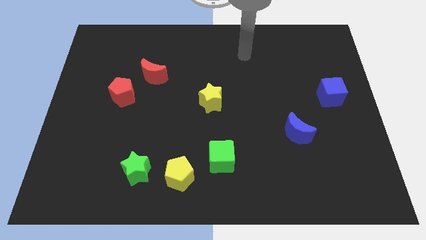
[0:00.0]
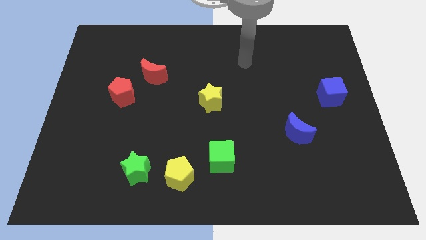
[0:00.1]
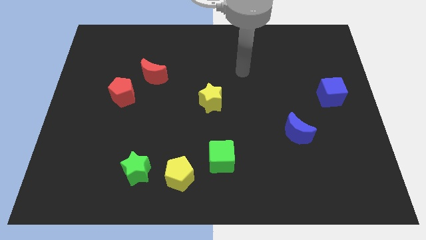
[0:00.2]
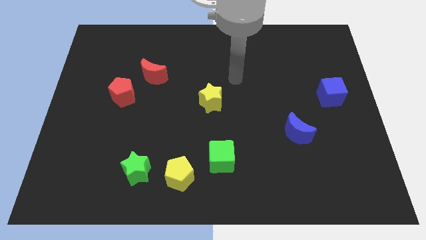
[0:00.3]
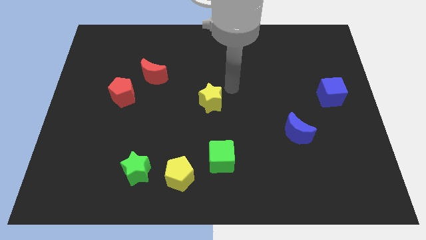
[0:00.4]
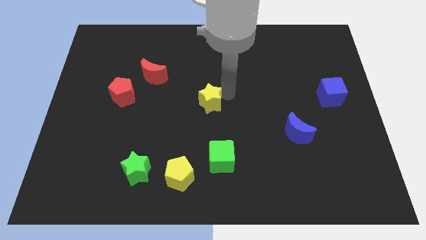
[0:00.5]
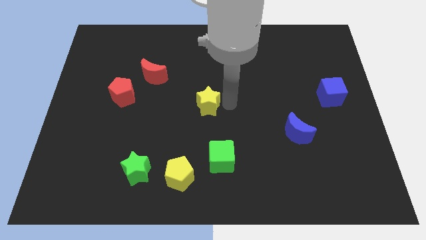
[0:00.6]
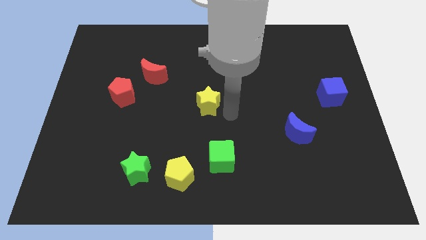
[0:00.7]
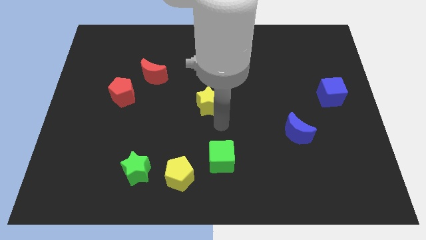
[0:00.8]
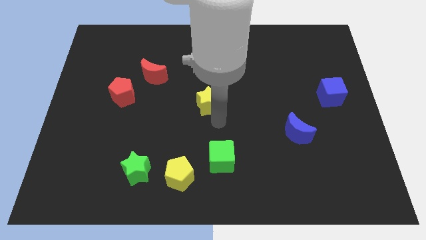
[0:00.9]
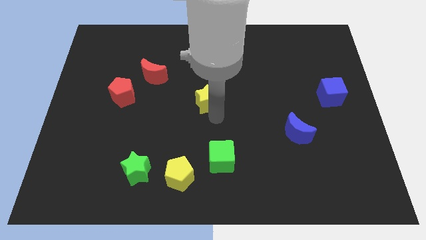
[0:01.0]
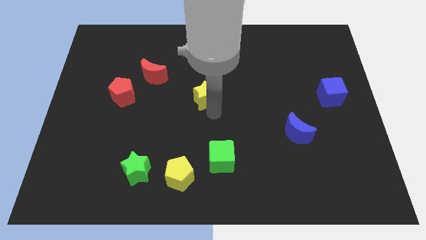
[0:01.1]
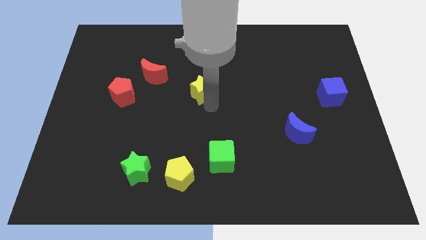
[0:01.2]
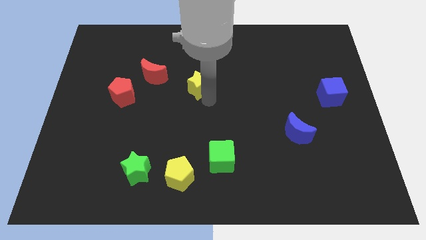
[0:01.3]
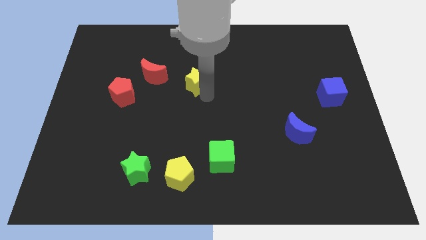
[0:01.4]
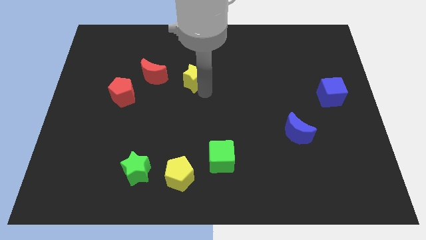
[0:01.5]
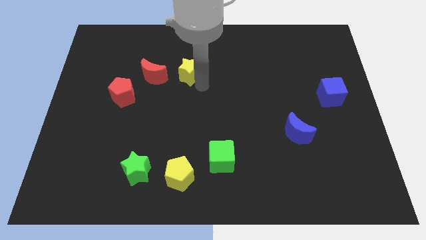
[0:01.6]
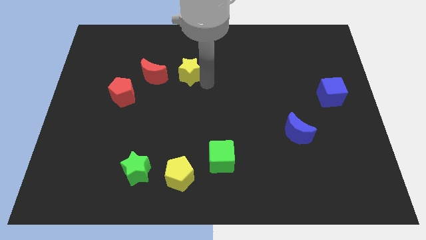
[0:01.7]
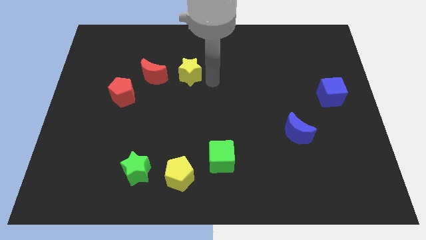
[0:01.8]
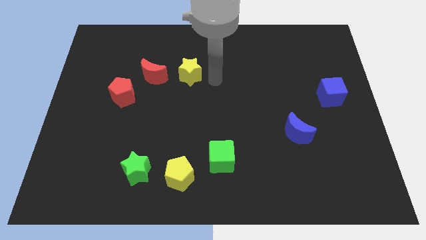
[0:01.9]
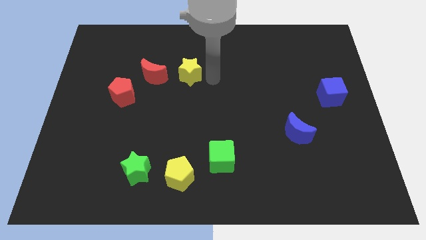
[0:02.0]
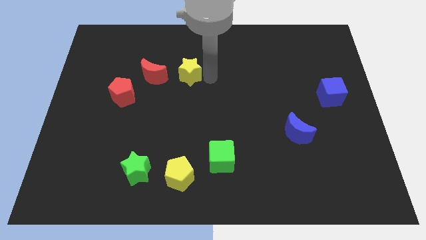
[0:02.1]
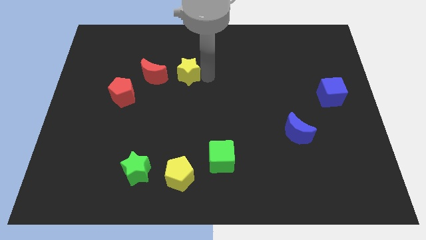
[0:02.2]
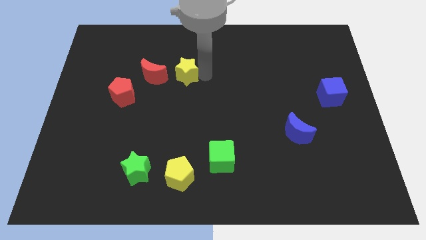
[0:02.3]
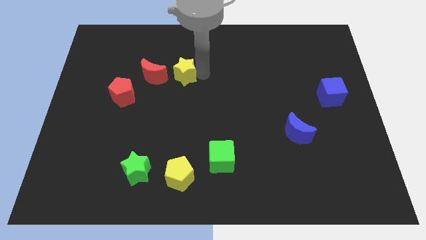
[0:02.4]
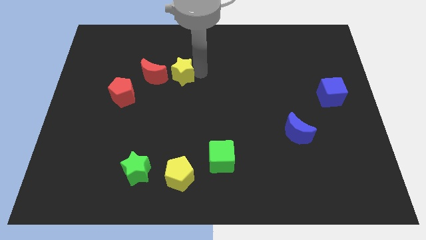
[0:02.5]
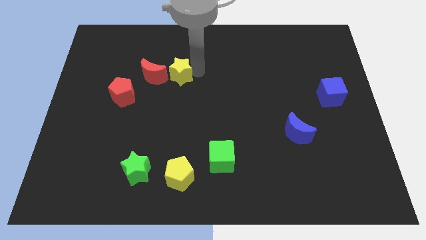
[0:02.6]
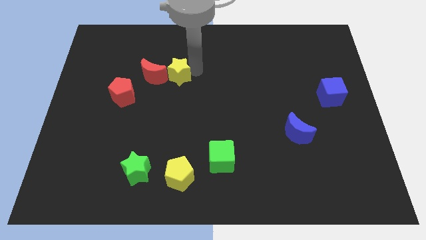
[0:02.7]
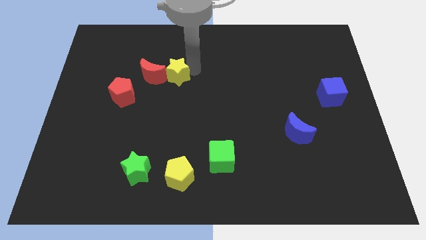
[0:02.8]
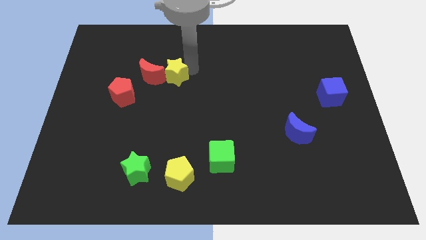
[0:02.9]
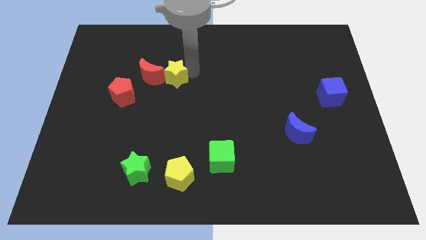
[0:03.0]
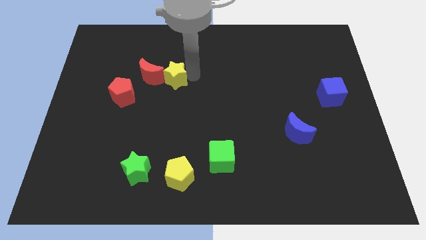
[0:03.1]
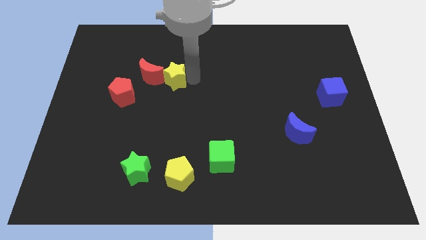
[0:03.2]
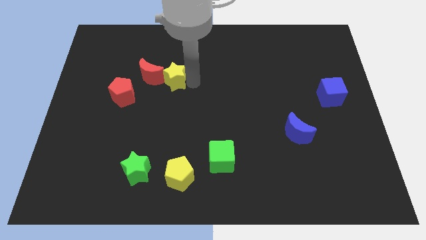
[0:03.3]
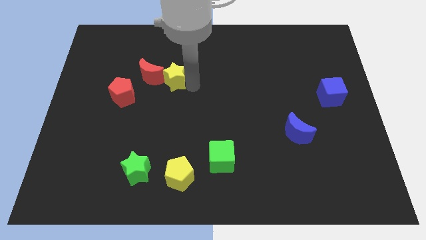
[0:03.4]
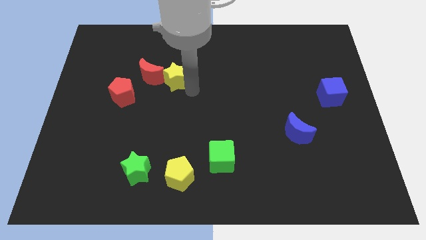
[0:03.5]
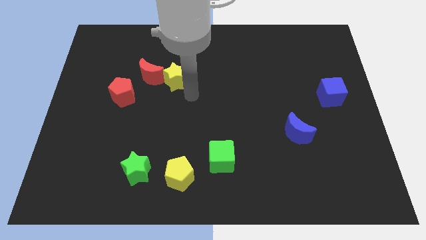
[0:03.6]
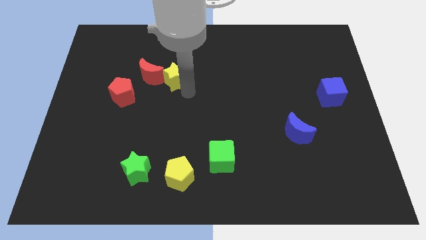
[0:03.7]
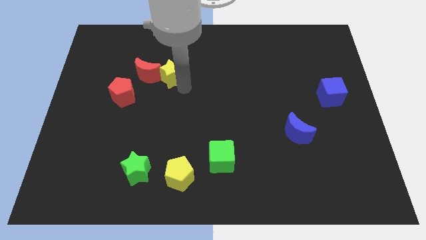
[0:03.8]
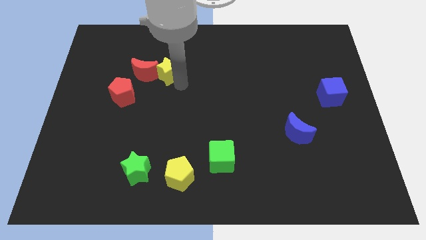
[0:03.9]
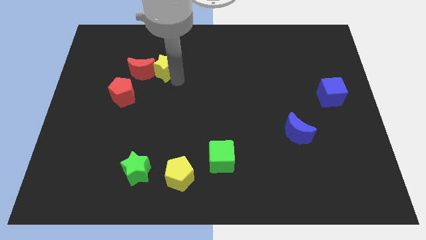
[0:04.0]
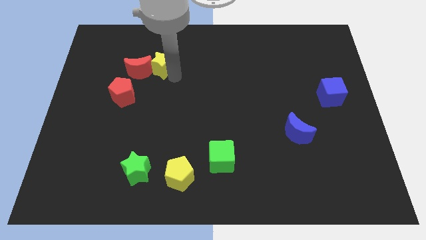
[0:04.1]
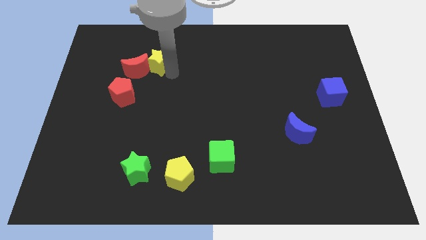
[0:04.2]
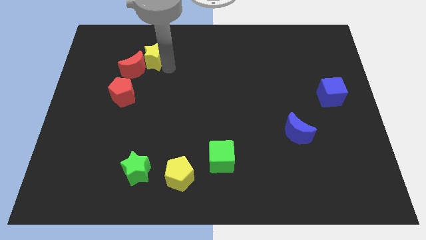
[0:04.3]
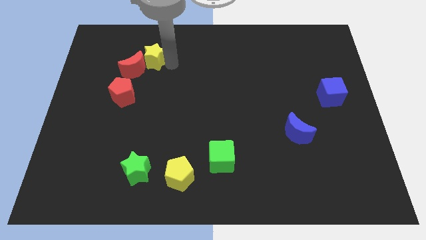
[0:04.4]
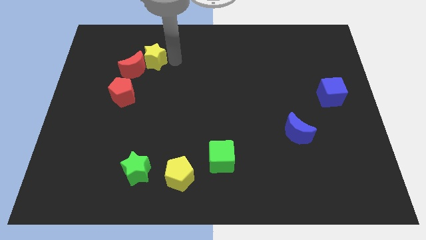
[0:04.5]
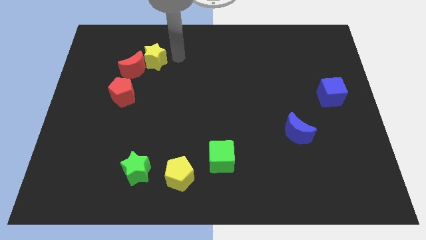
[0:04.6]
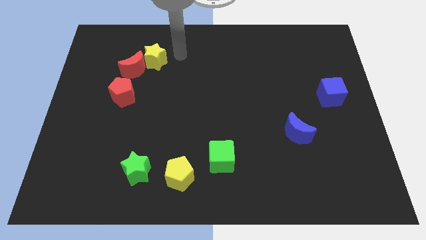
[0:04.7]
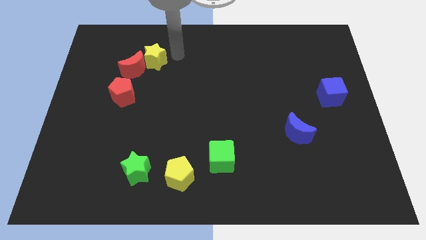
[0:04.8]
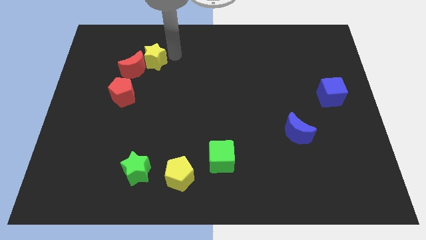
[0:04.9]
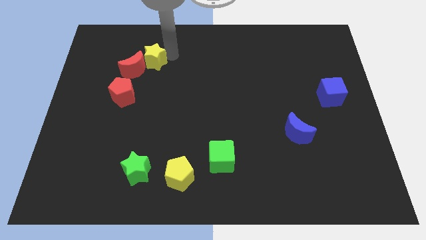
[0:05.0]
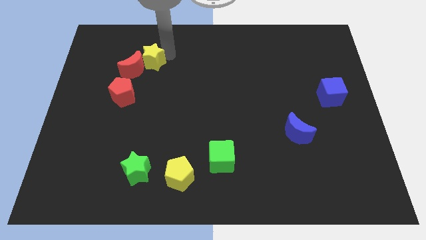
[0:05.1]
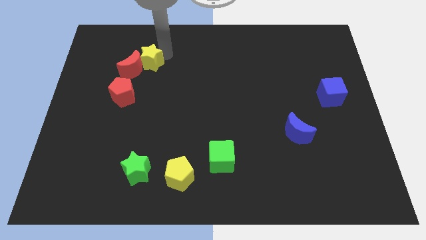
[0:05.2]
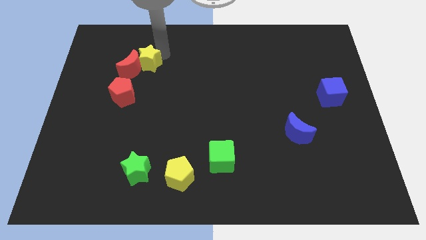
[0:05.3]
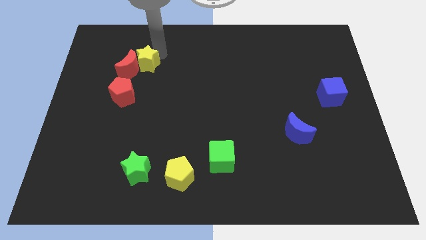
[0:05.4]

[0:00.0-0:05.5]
move the yellow star to the top side of the red pentagon
